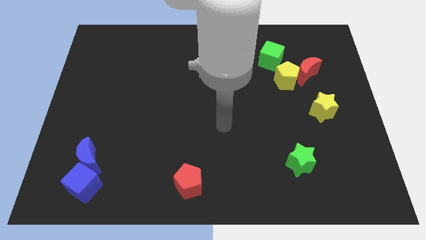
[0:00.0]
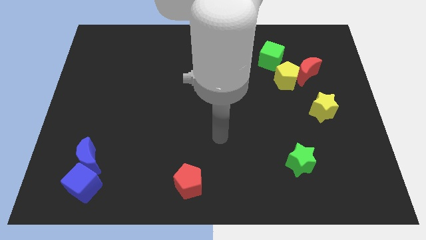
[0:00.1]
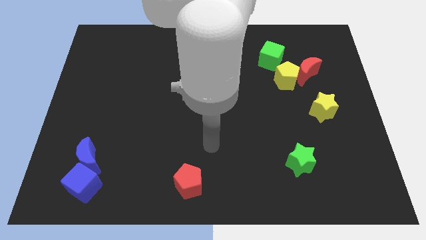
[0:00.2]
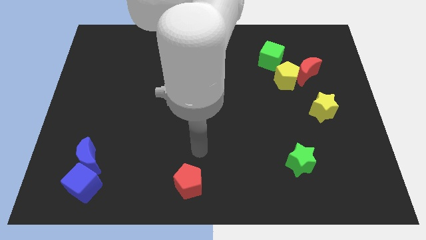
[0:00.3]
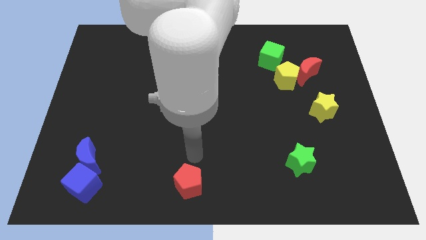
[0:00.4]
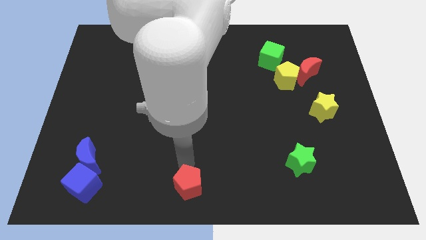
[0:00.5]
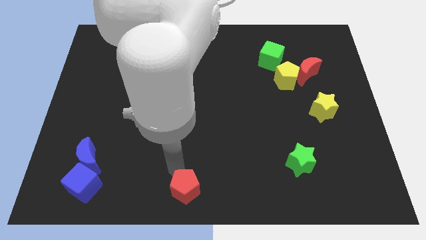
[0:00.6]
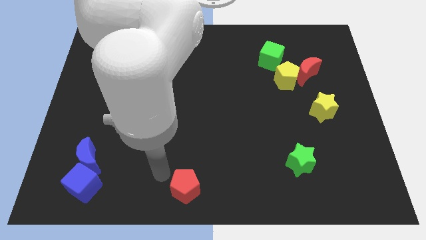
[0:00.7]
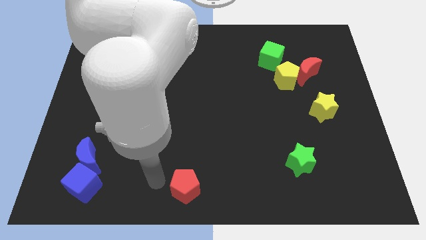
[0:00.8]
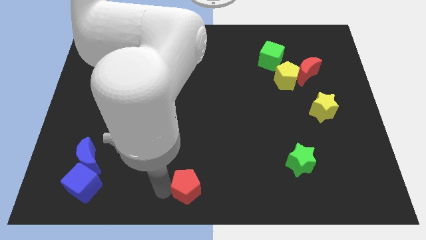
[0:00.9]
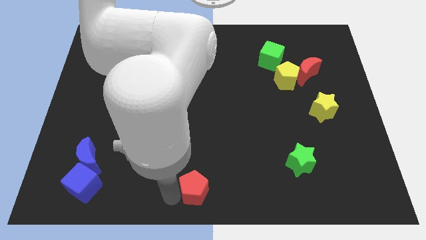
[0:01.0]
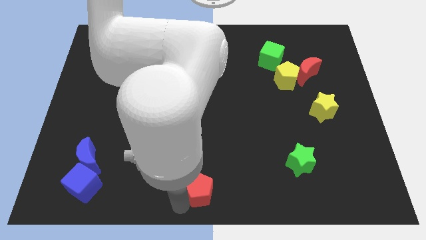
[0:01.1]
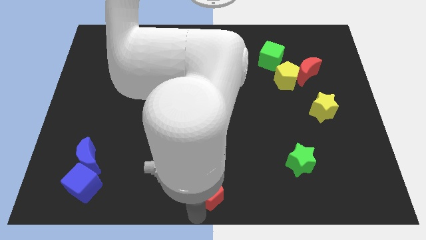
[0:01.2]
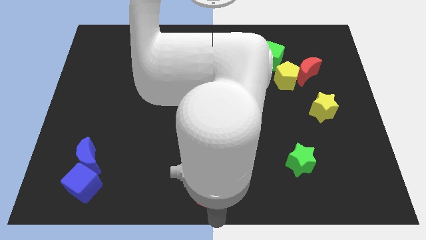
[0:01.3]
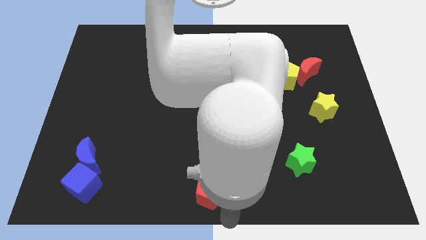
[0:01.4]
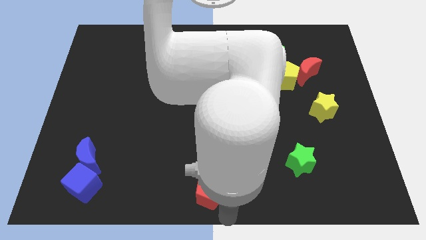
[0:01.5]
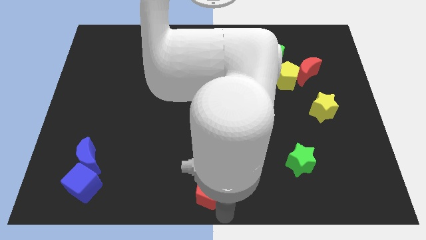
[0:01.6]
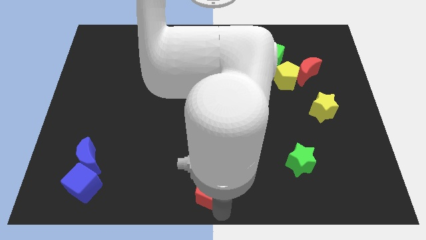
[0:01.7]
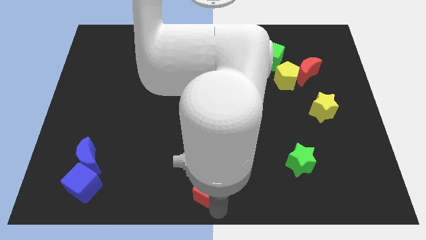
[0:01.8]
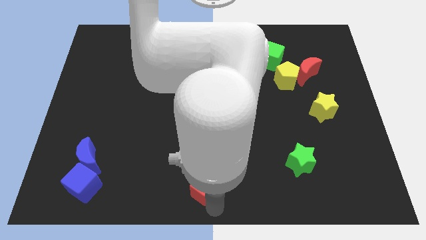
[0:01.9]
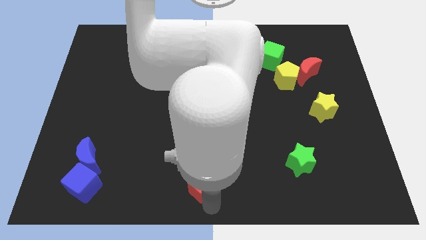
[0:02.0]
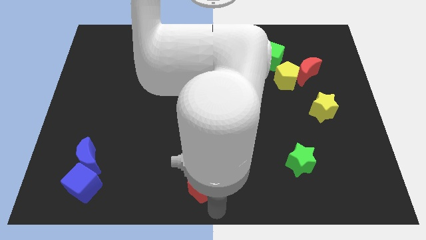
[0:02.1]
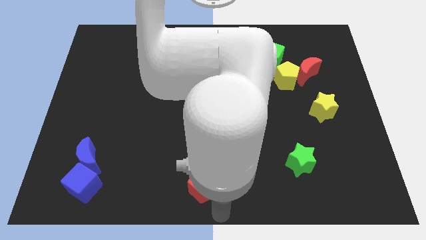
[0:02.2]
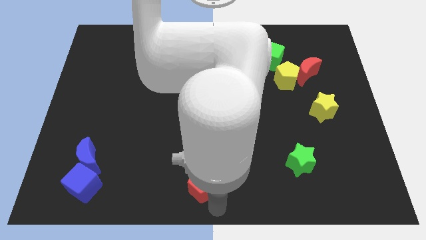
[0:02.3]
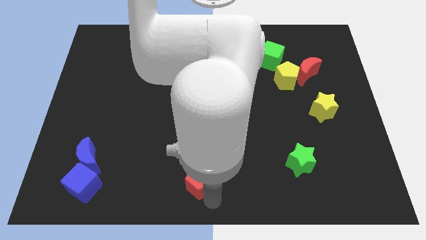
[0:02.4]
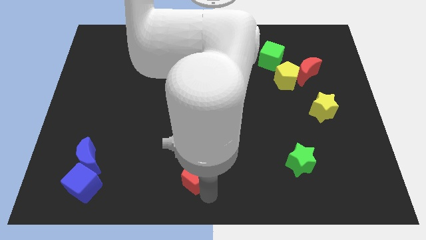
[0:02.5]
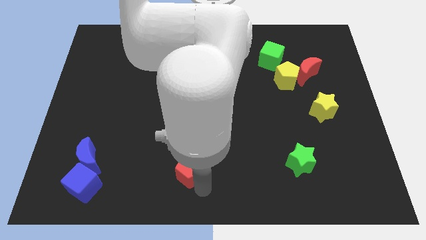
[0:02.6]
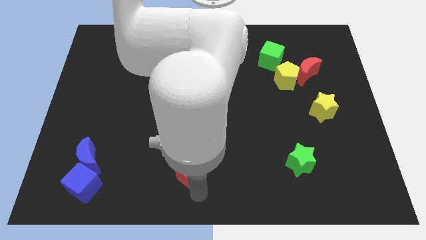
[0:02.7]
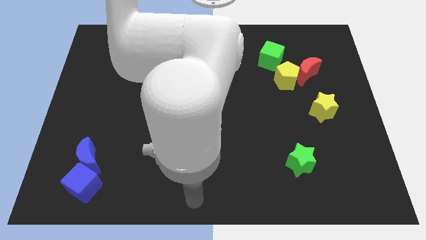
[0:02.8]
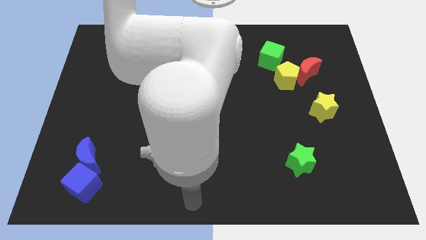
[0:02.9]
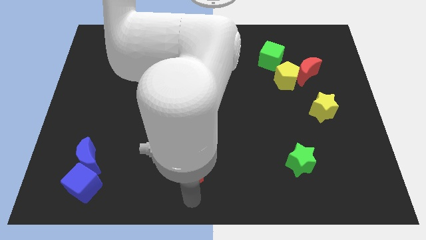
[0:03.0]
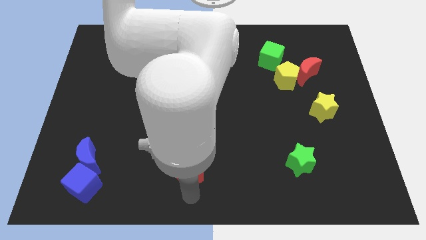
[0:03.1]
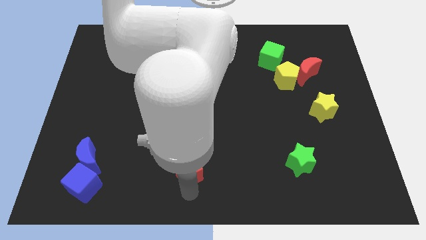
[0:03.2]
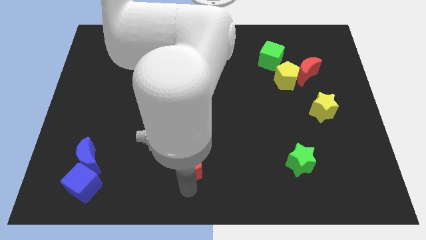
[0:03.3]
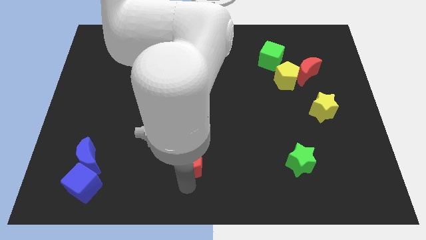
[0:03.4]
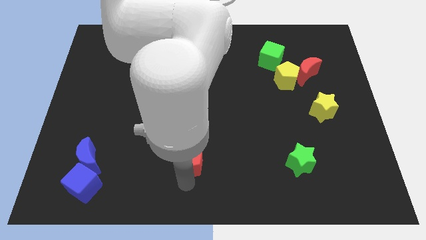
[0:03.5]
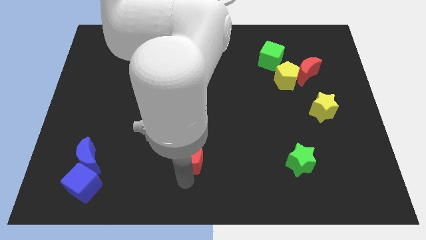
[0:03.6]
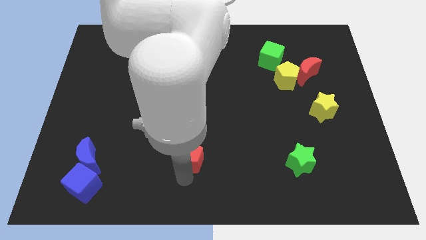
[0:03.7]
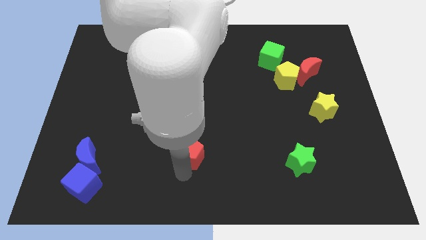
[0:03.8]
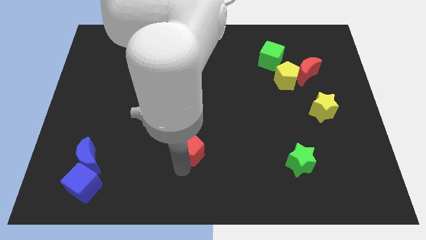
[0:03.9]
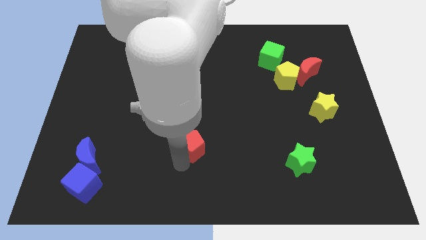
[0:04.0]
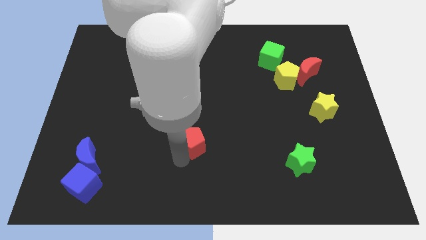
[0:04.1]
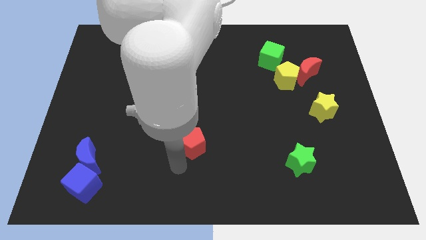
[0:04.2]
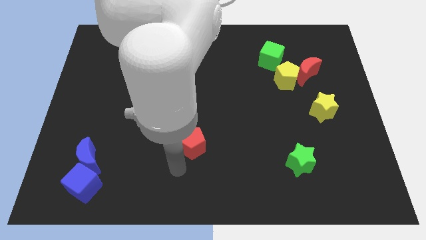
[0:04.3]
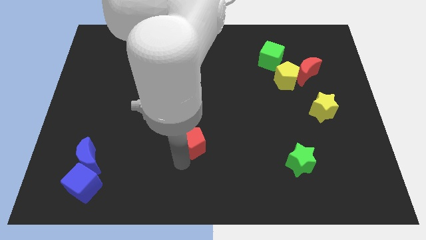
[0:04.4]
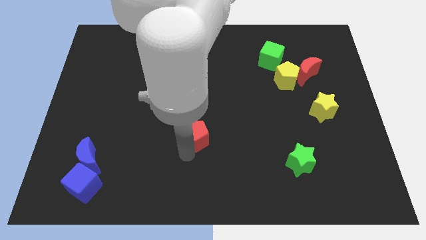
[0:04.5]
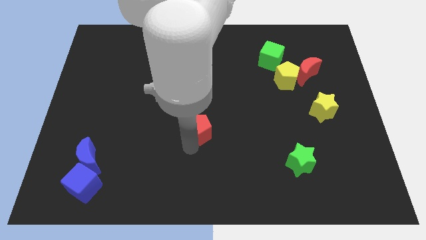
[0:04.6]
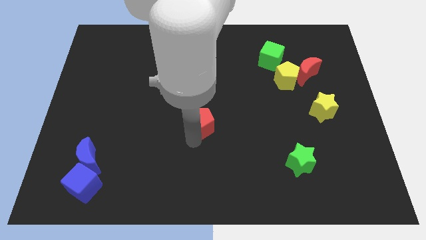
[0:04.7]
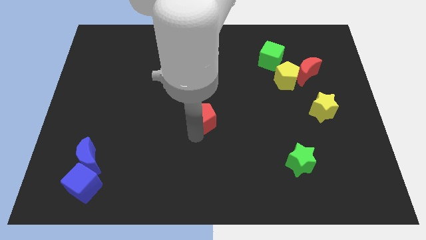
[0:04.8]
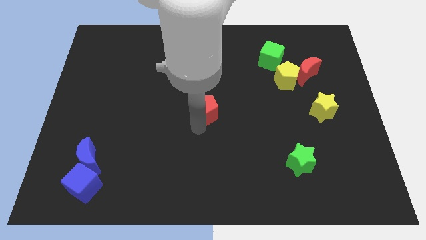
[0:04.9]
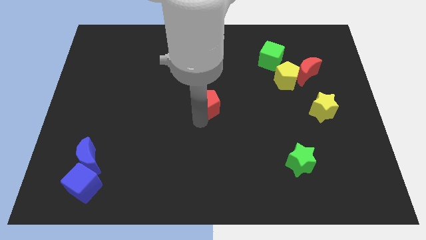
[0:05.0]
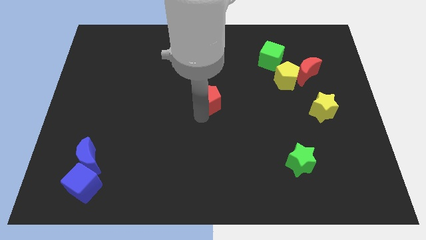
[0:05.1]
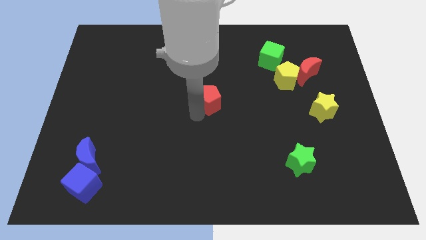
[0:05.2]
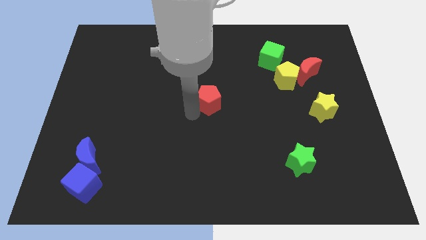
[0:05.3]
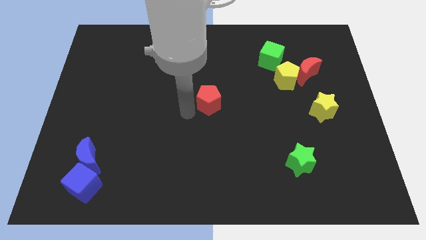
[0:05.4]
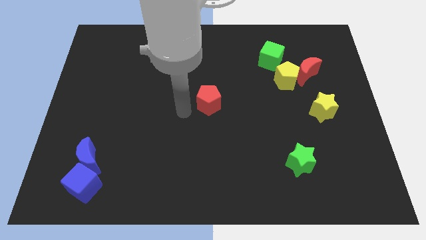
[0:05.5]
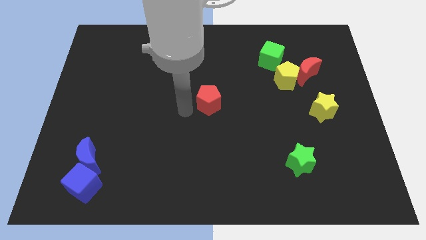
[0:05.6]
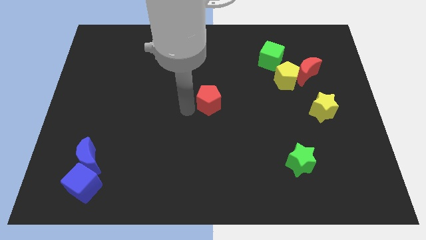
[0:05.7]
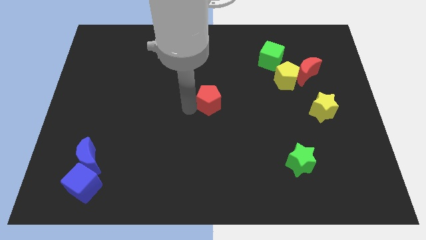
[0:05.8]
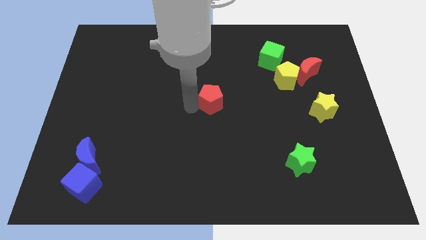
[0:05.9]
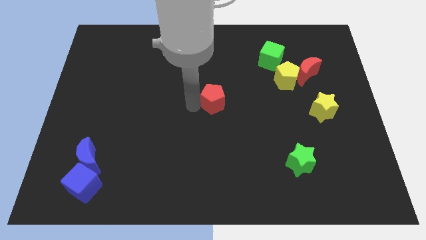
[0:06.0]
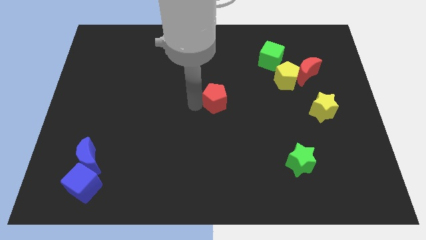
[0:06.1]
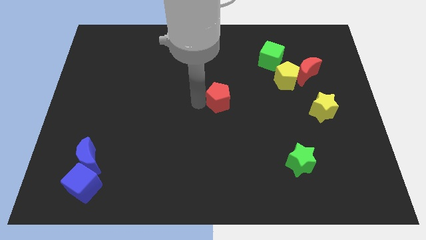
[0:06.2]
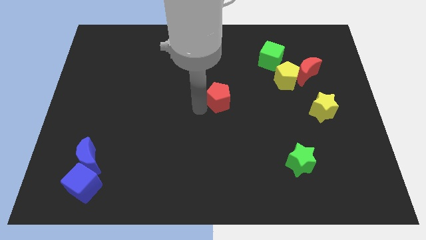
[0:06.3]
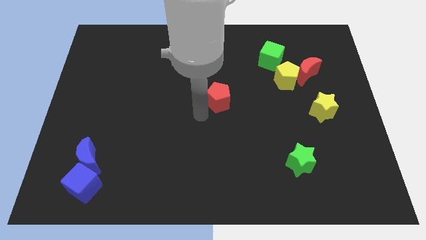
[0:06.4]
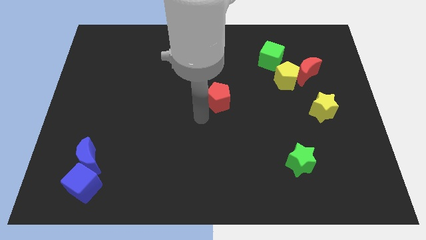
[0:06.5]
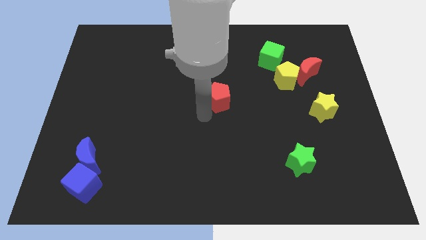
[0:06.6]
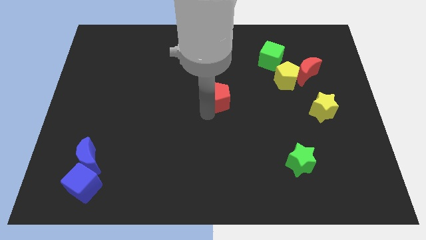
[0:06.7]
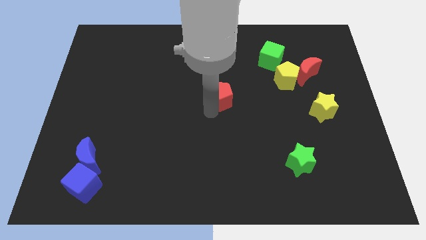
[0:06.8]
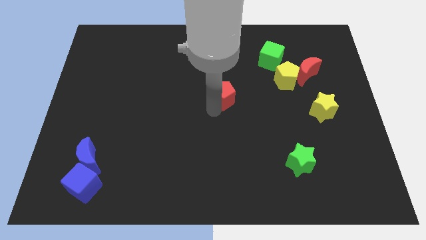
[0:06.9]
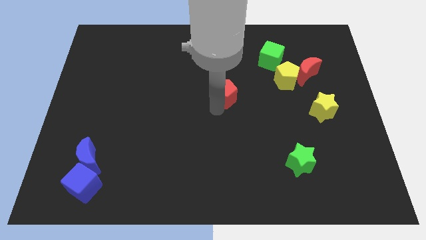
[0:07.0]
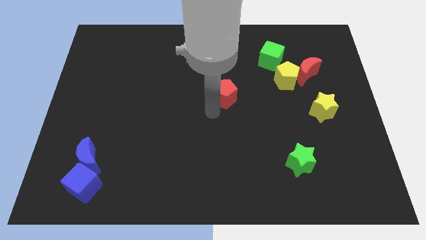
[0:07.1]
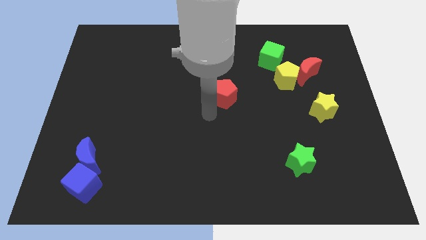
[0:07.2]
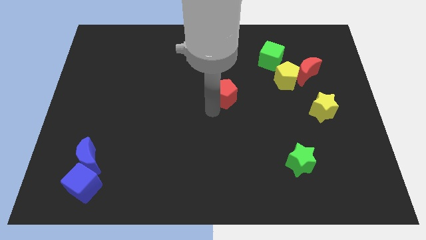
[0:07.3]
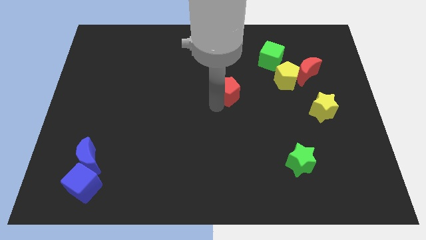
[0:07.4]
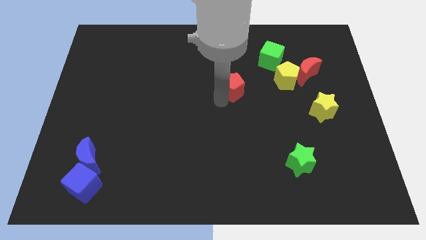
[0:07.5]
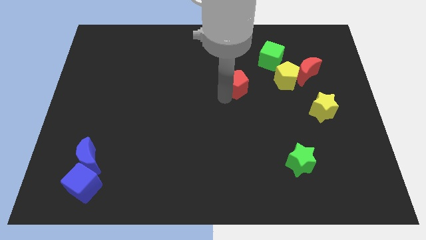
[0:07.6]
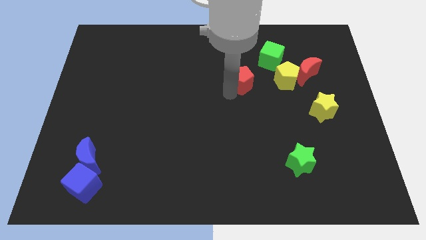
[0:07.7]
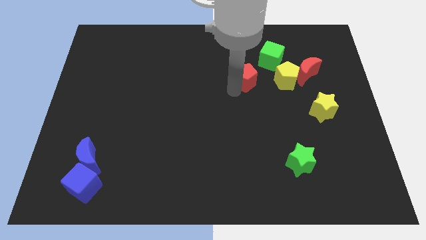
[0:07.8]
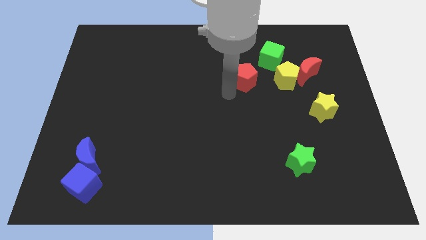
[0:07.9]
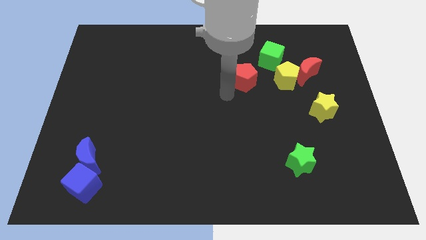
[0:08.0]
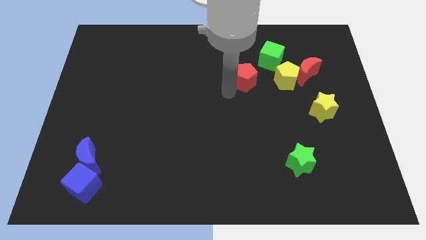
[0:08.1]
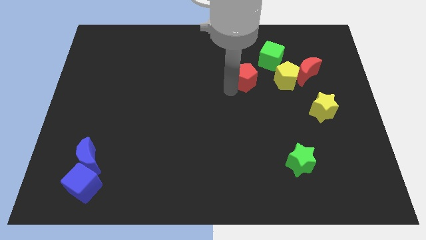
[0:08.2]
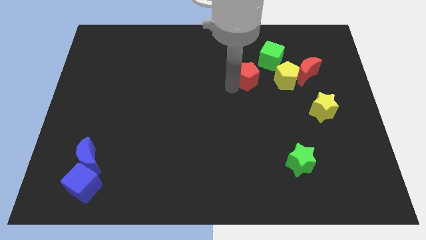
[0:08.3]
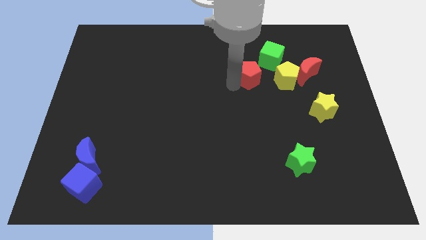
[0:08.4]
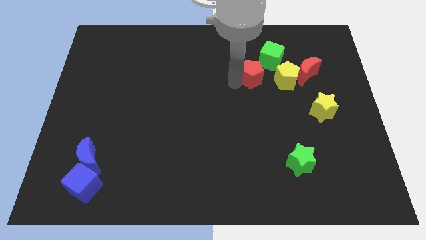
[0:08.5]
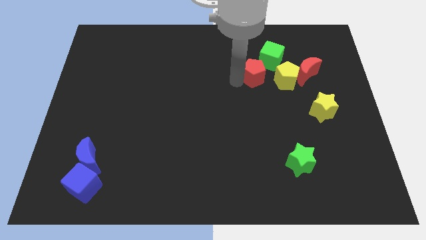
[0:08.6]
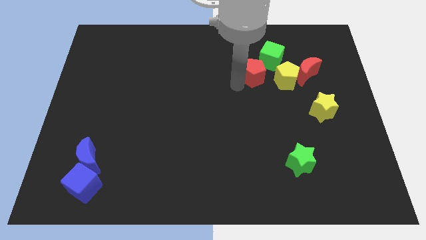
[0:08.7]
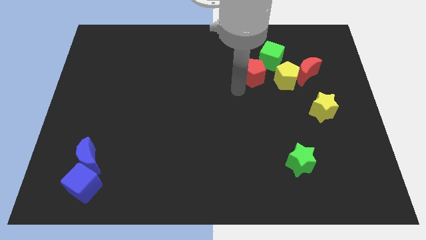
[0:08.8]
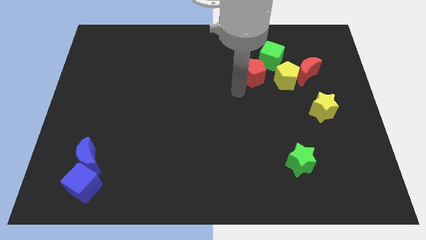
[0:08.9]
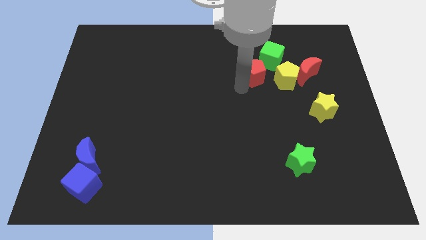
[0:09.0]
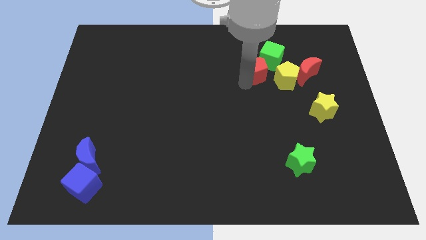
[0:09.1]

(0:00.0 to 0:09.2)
move the red pentagon to the top left side of the yellow pentagon
